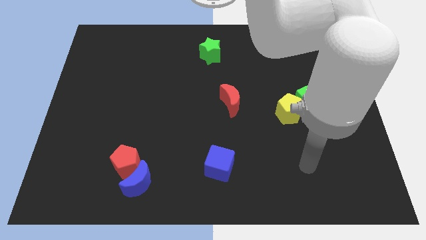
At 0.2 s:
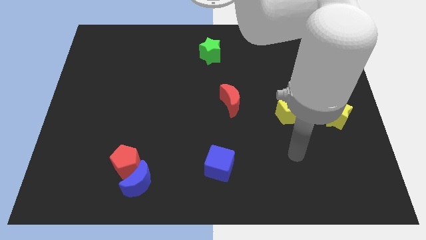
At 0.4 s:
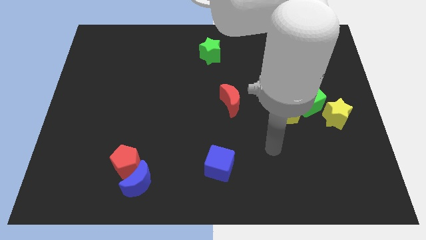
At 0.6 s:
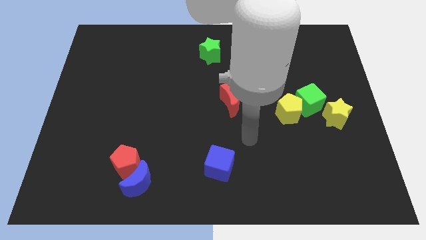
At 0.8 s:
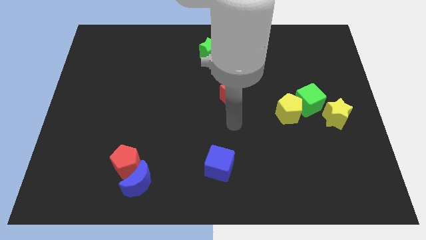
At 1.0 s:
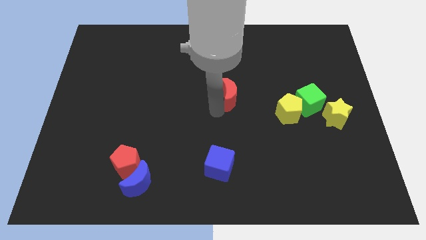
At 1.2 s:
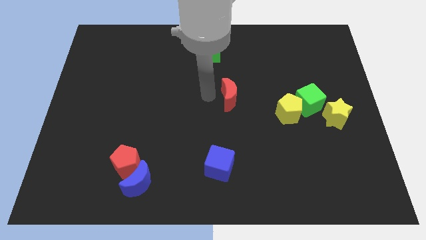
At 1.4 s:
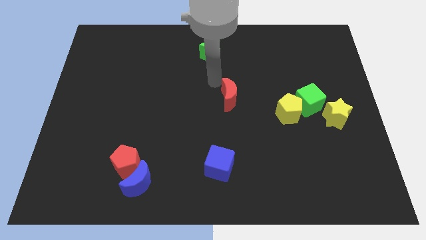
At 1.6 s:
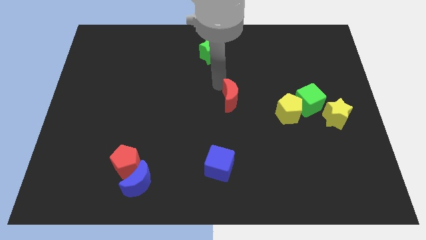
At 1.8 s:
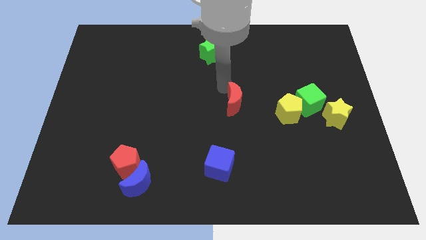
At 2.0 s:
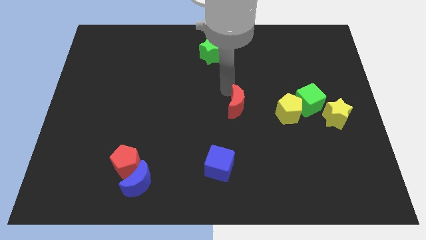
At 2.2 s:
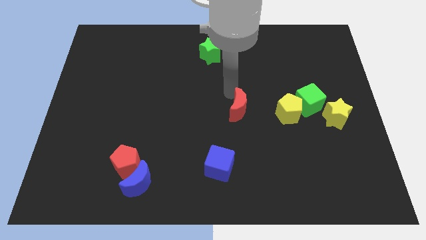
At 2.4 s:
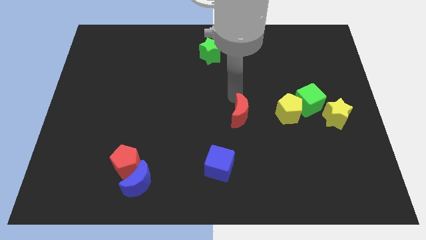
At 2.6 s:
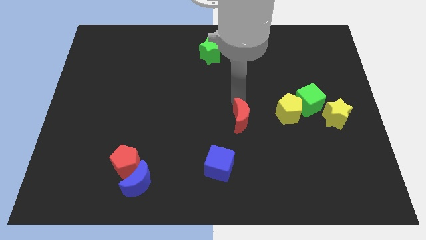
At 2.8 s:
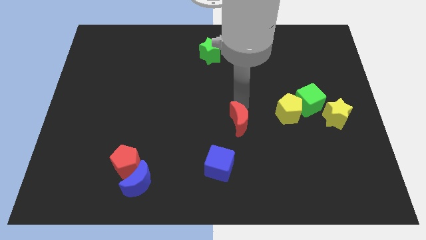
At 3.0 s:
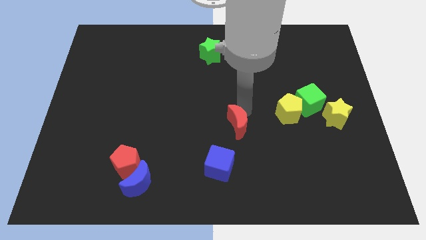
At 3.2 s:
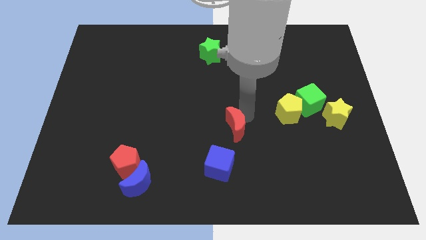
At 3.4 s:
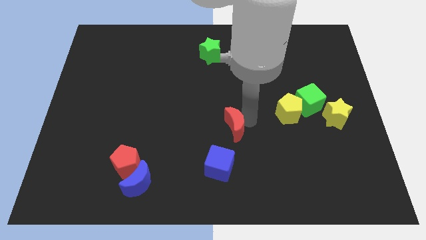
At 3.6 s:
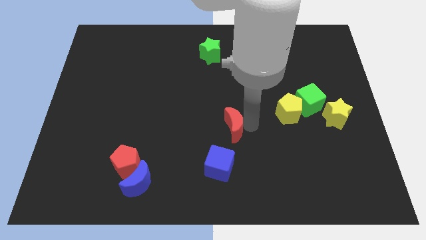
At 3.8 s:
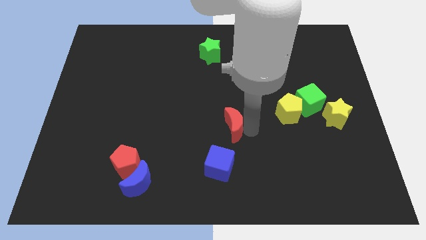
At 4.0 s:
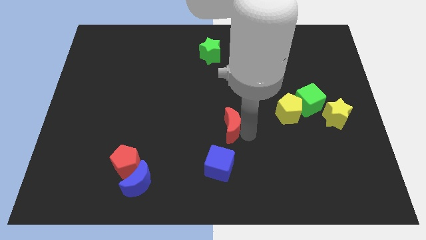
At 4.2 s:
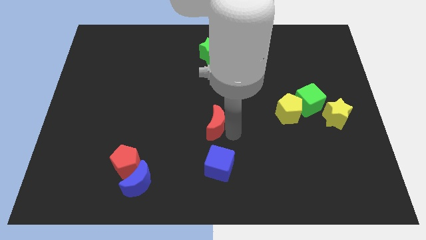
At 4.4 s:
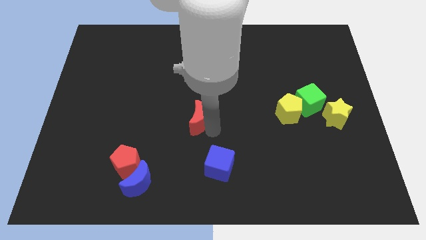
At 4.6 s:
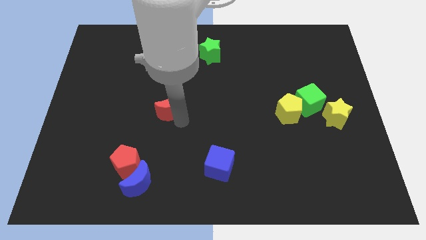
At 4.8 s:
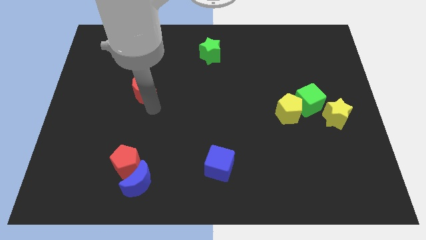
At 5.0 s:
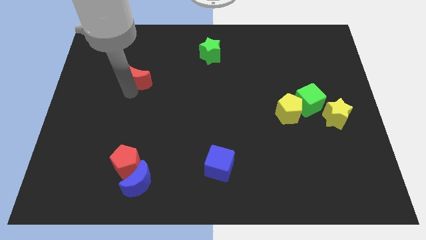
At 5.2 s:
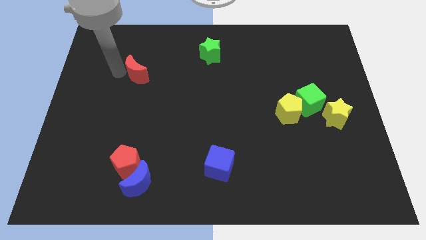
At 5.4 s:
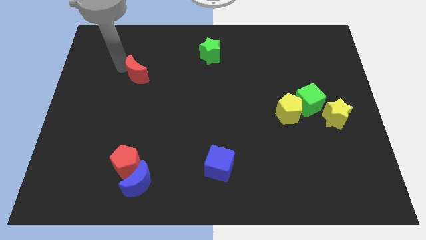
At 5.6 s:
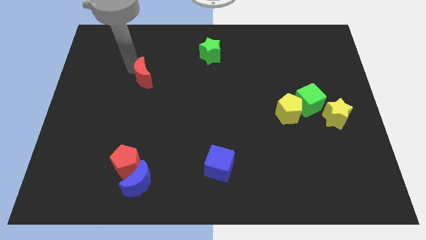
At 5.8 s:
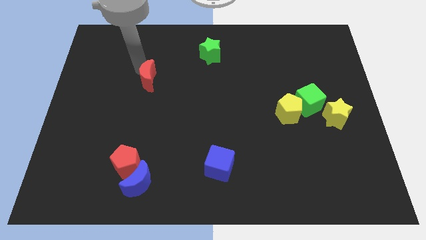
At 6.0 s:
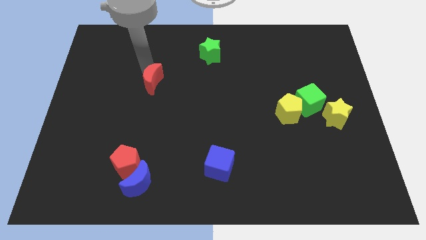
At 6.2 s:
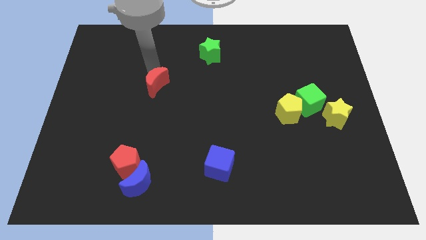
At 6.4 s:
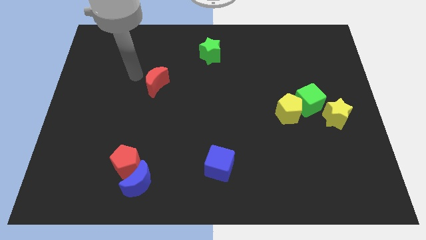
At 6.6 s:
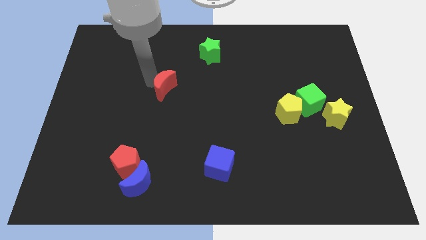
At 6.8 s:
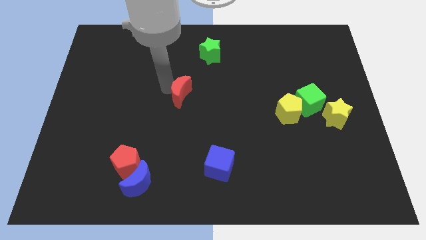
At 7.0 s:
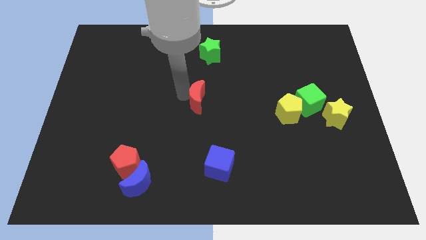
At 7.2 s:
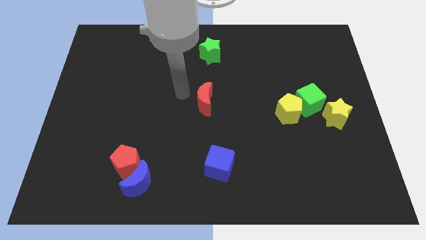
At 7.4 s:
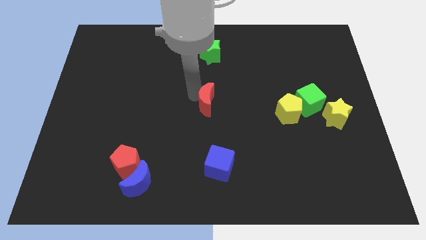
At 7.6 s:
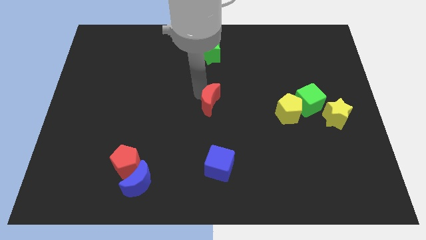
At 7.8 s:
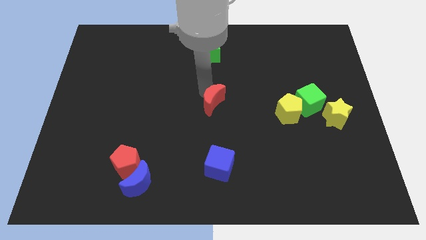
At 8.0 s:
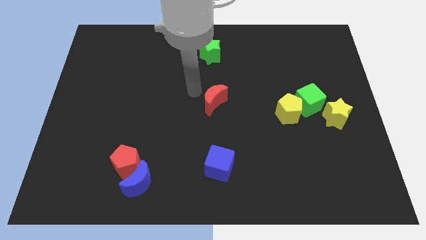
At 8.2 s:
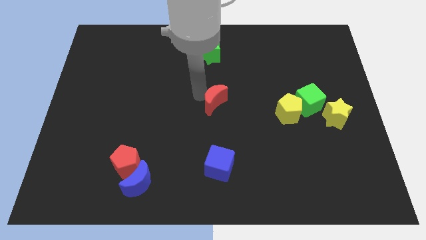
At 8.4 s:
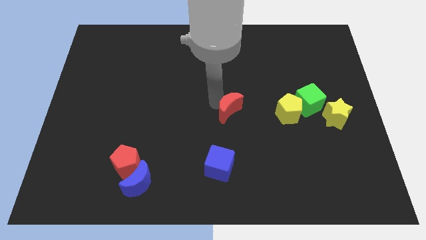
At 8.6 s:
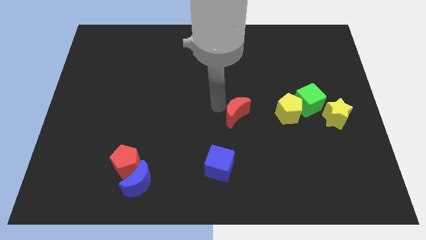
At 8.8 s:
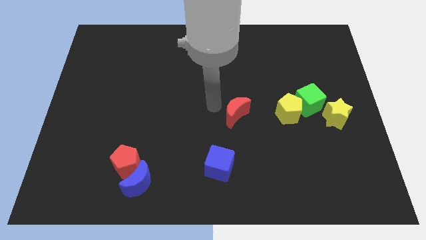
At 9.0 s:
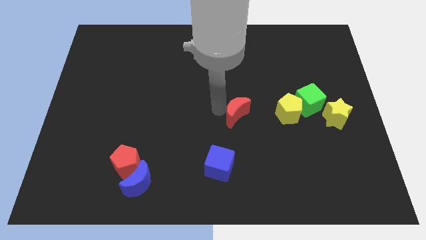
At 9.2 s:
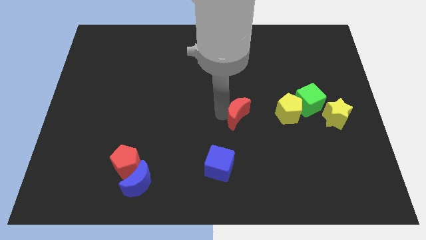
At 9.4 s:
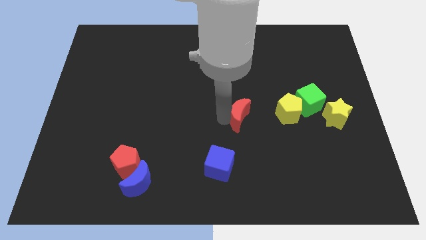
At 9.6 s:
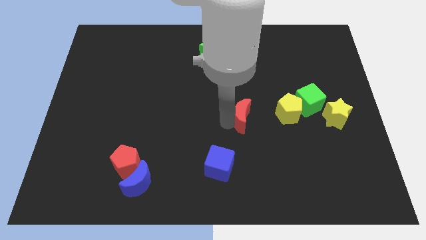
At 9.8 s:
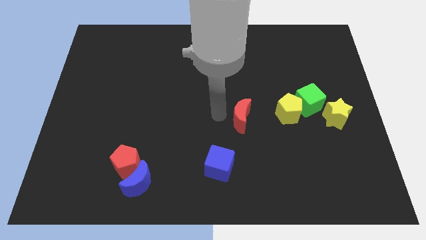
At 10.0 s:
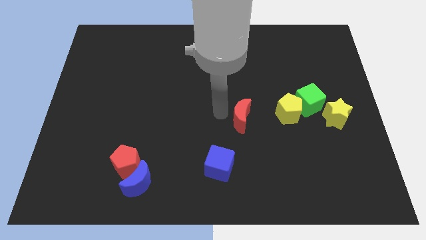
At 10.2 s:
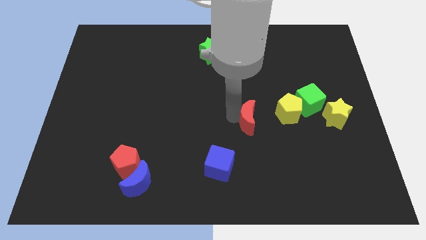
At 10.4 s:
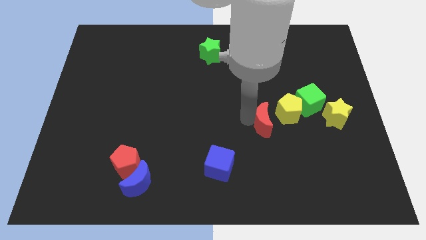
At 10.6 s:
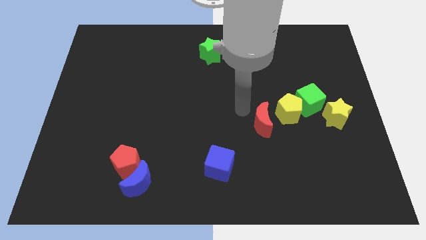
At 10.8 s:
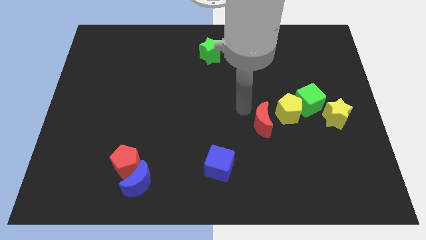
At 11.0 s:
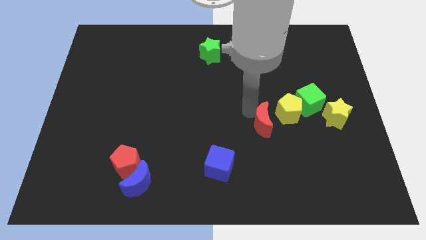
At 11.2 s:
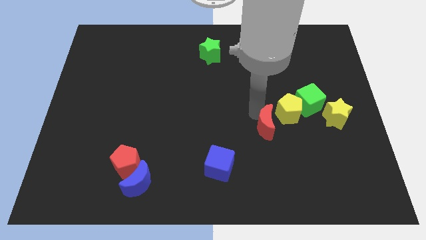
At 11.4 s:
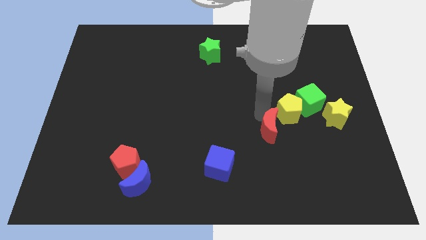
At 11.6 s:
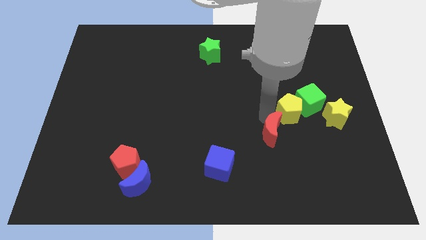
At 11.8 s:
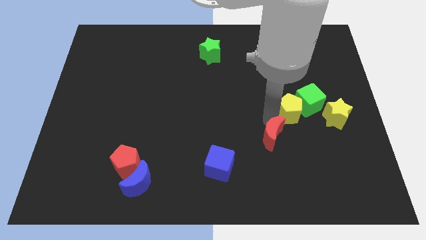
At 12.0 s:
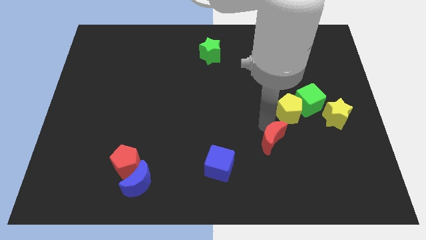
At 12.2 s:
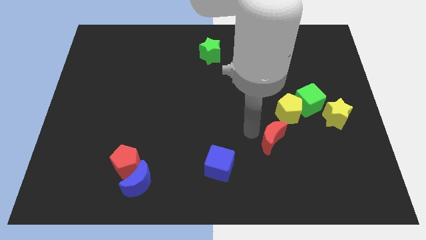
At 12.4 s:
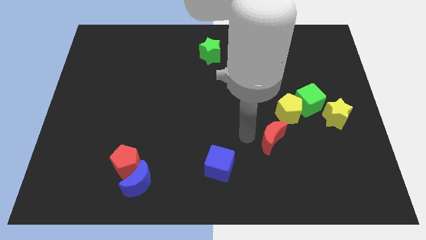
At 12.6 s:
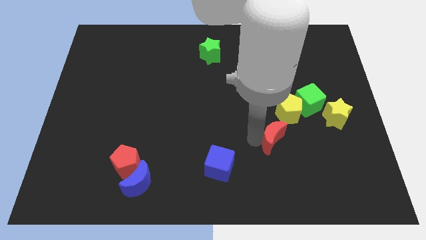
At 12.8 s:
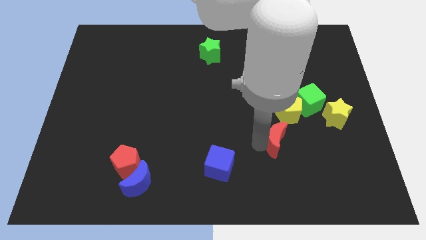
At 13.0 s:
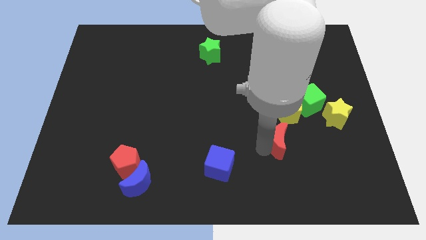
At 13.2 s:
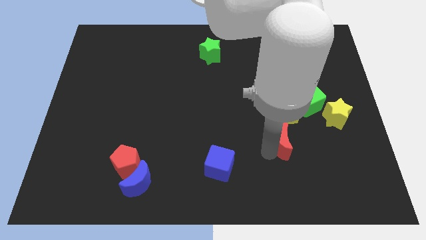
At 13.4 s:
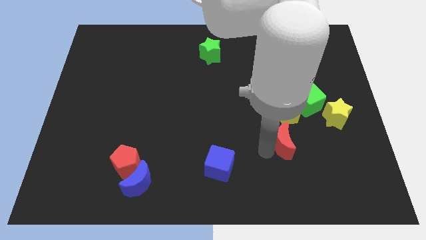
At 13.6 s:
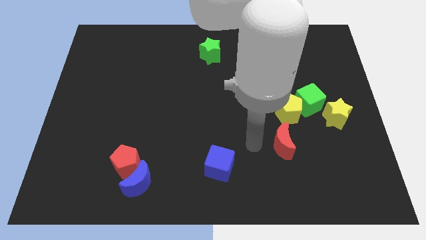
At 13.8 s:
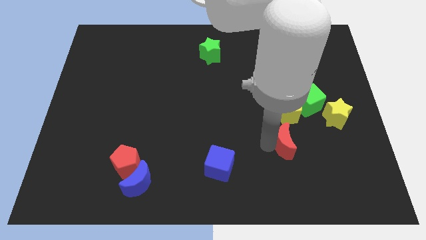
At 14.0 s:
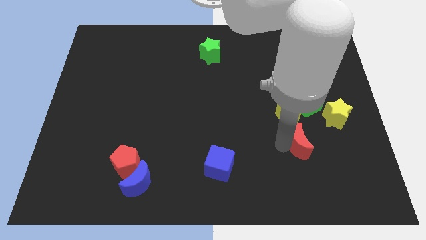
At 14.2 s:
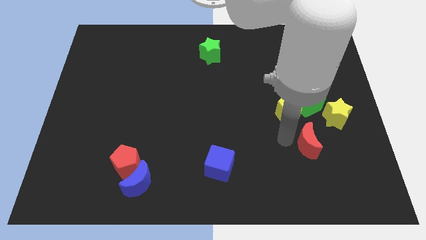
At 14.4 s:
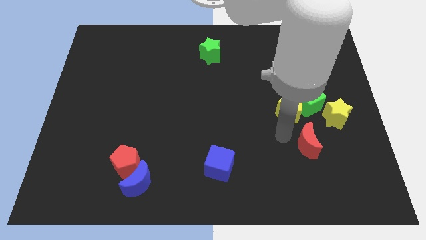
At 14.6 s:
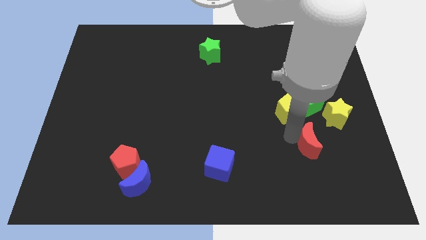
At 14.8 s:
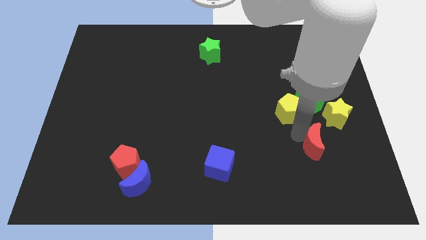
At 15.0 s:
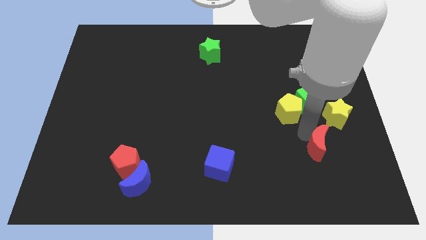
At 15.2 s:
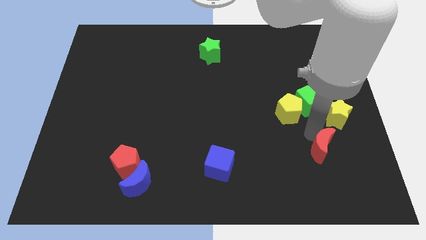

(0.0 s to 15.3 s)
put the red moon to the bottom of the yellow star
